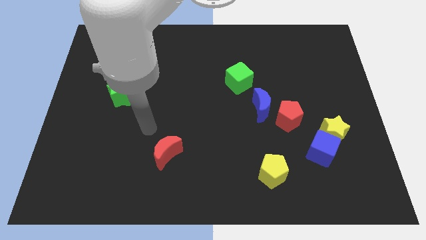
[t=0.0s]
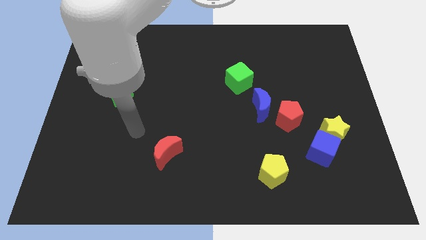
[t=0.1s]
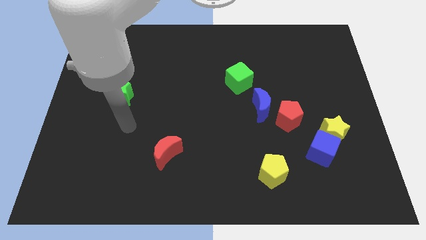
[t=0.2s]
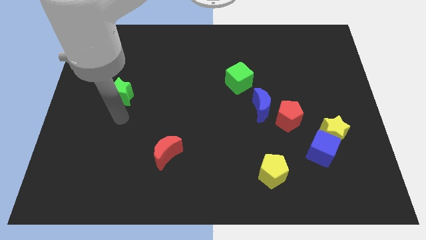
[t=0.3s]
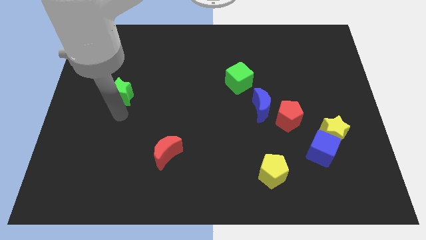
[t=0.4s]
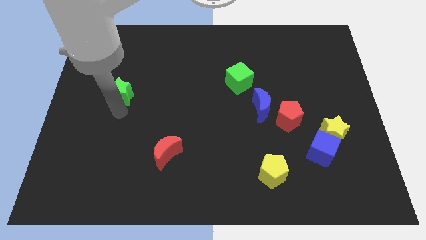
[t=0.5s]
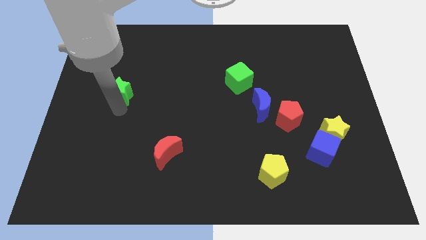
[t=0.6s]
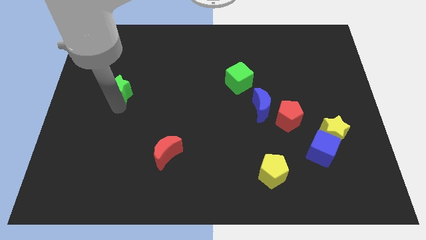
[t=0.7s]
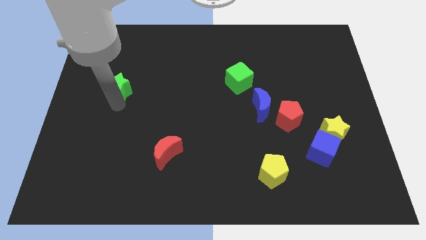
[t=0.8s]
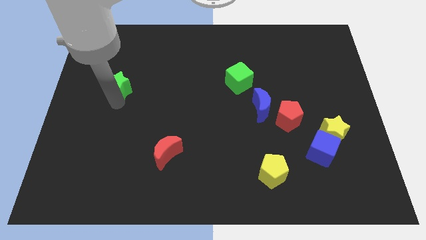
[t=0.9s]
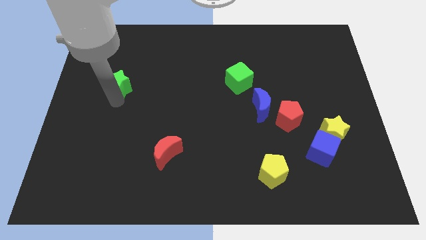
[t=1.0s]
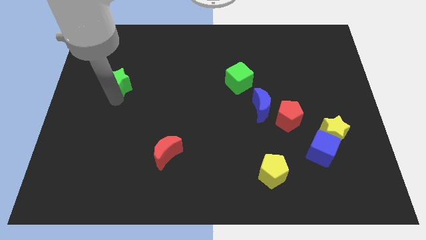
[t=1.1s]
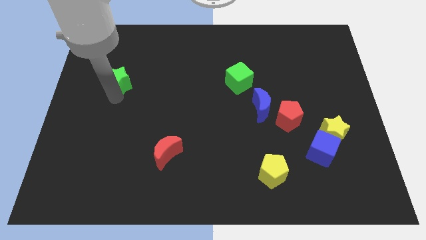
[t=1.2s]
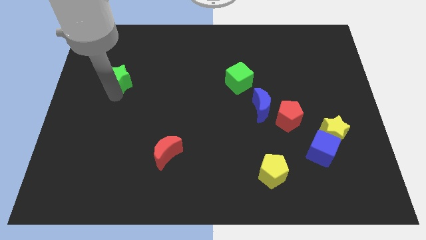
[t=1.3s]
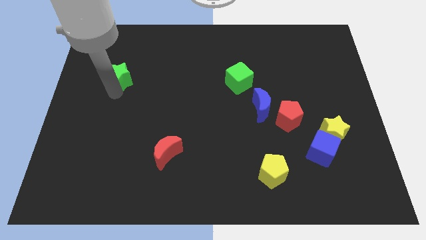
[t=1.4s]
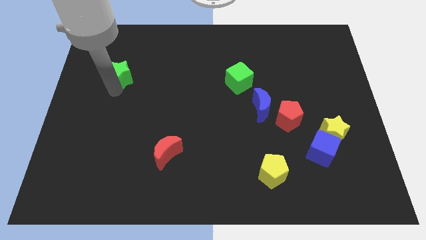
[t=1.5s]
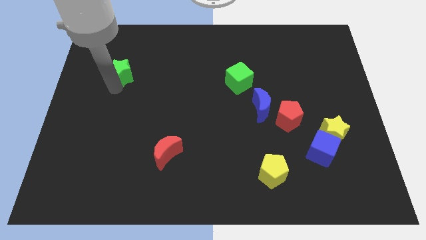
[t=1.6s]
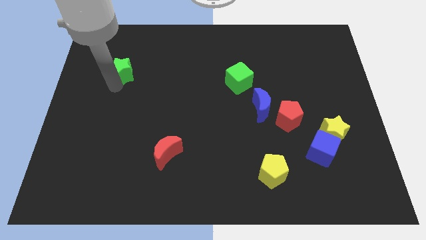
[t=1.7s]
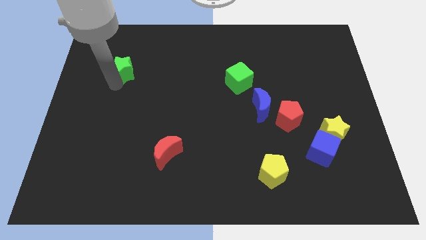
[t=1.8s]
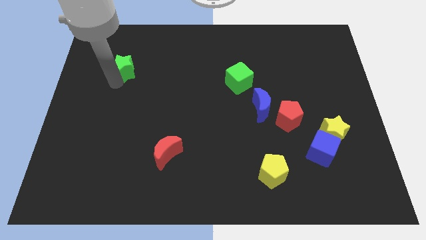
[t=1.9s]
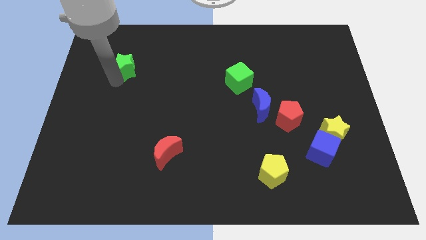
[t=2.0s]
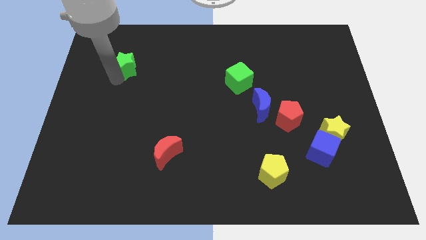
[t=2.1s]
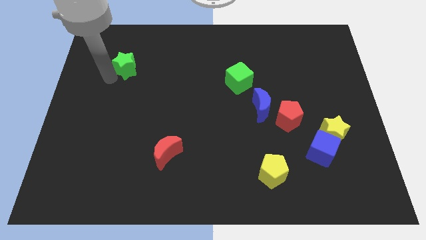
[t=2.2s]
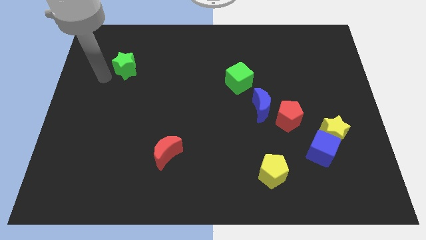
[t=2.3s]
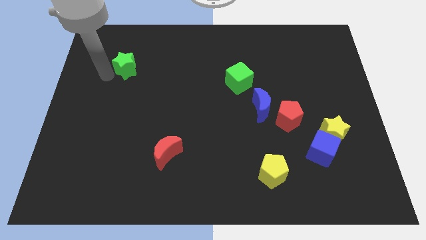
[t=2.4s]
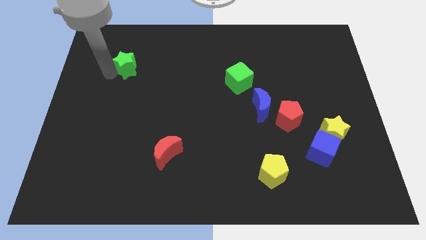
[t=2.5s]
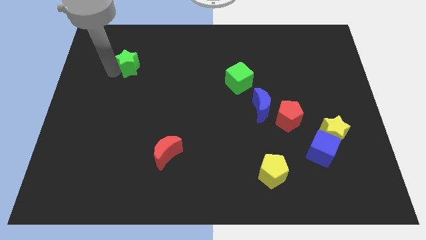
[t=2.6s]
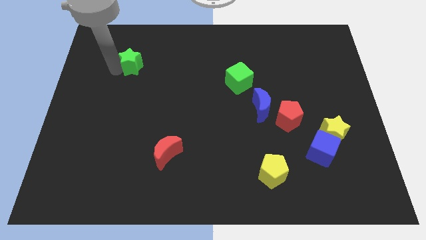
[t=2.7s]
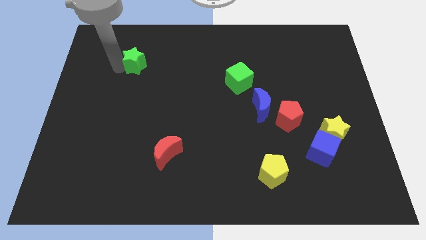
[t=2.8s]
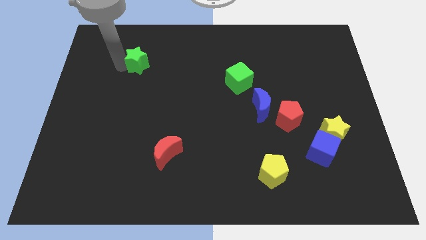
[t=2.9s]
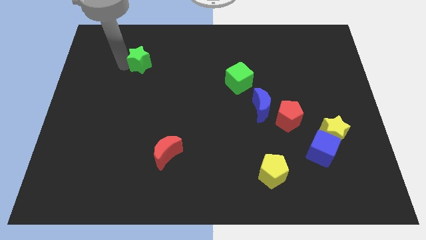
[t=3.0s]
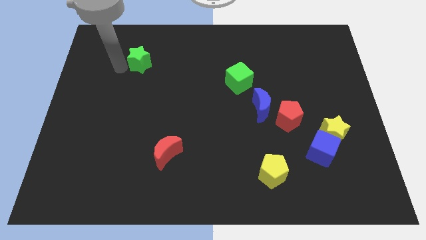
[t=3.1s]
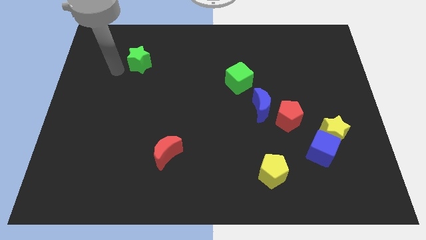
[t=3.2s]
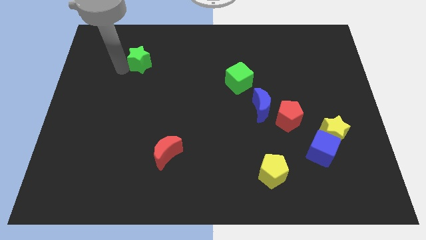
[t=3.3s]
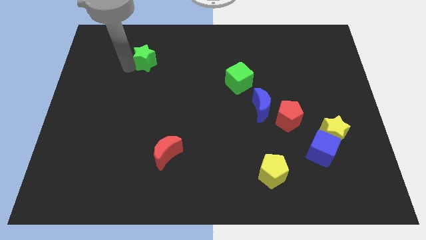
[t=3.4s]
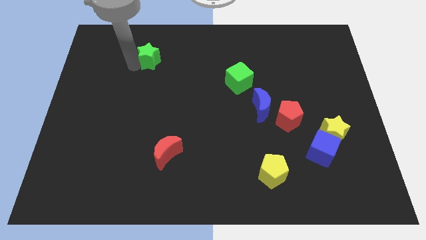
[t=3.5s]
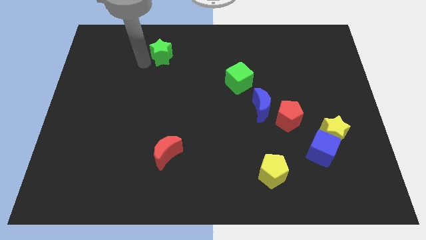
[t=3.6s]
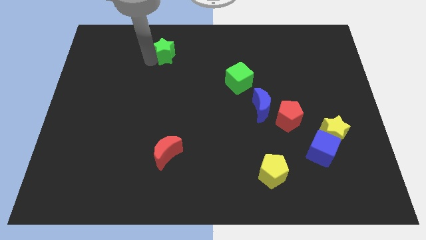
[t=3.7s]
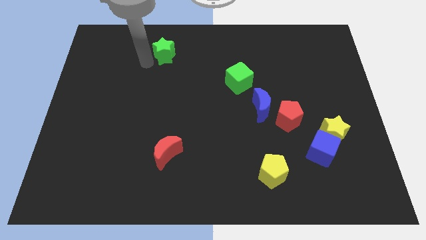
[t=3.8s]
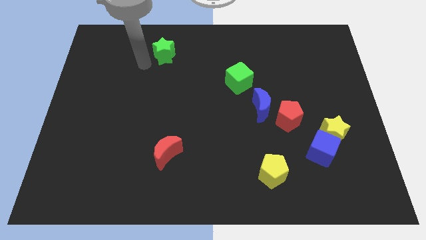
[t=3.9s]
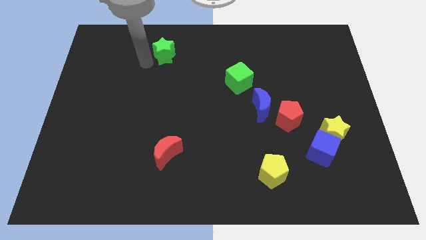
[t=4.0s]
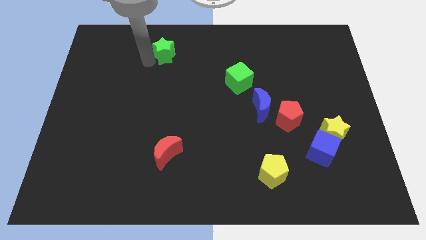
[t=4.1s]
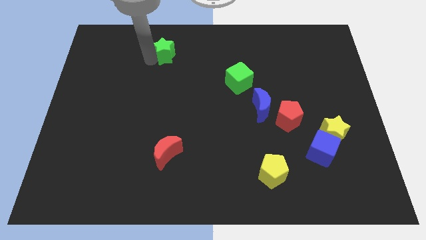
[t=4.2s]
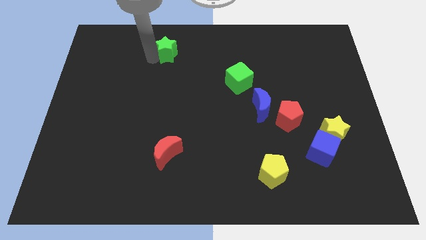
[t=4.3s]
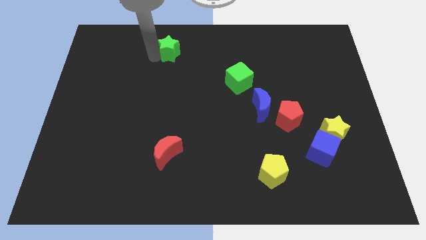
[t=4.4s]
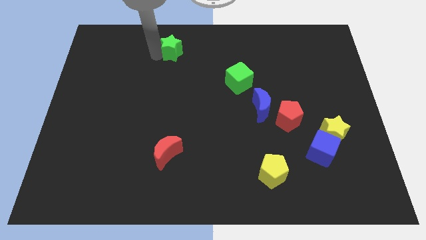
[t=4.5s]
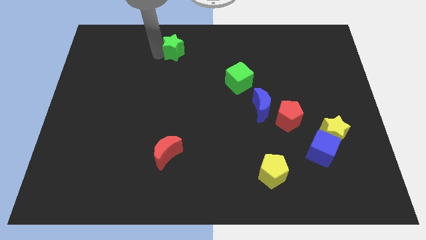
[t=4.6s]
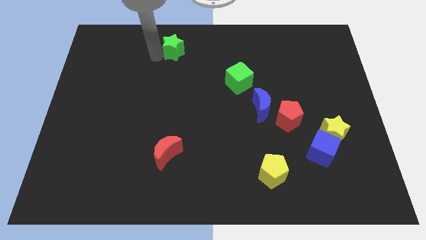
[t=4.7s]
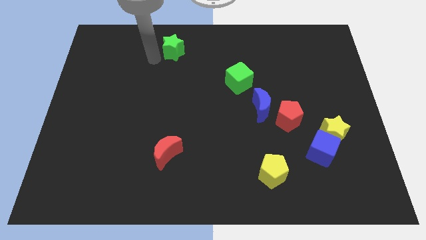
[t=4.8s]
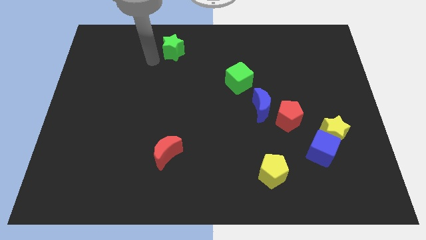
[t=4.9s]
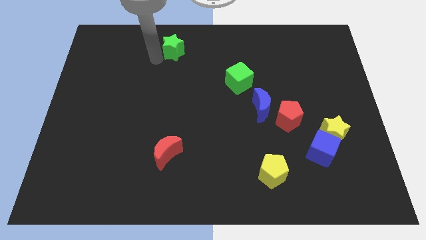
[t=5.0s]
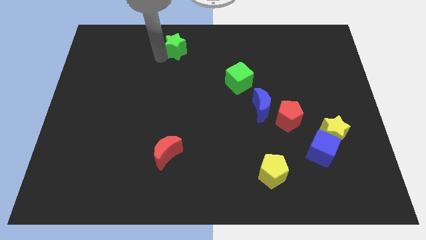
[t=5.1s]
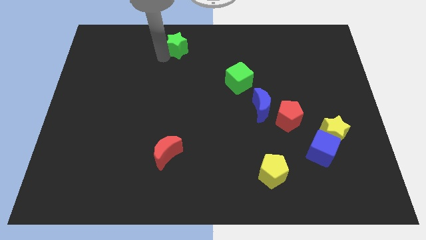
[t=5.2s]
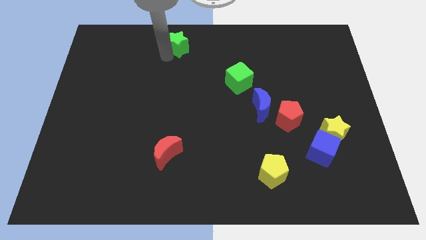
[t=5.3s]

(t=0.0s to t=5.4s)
push the green star to the top side
